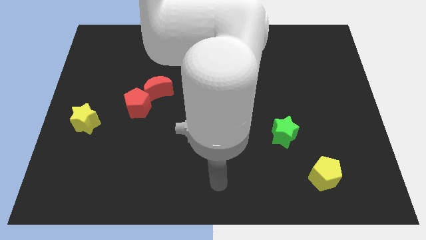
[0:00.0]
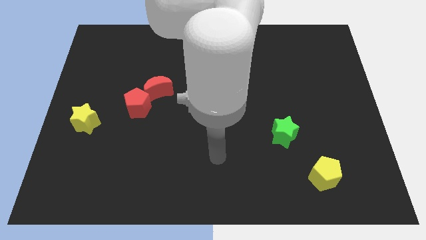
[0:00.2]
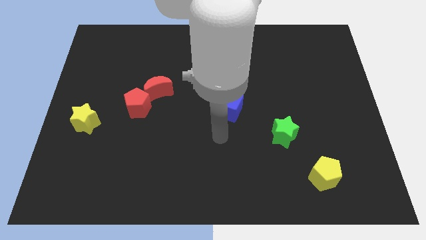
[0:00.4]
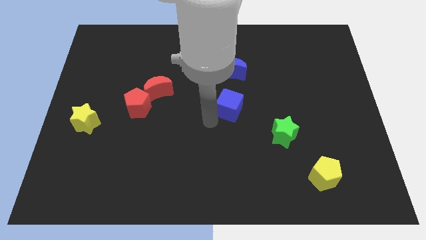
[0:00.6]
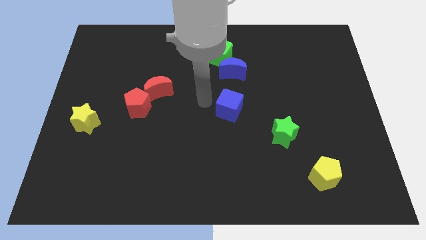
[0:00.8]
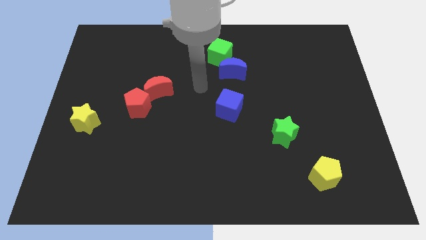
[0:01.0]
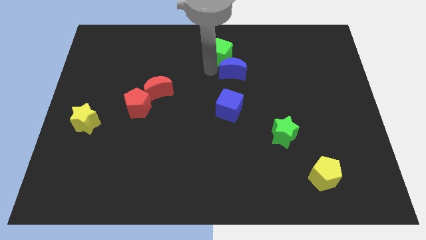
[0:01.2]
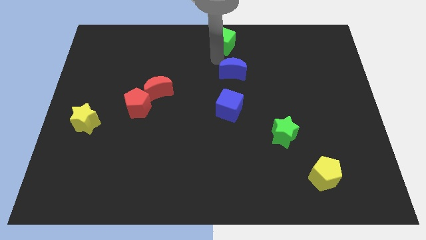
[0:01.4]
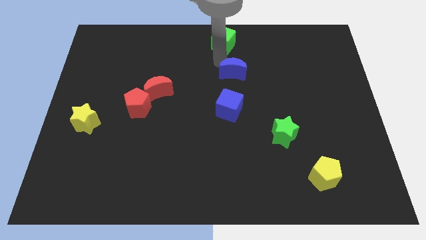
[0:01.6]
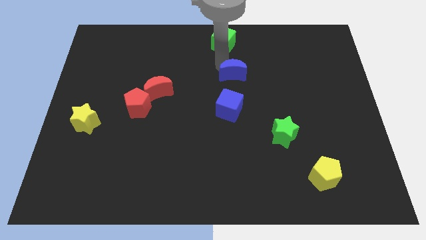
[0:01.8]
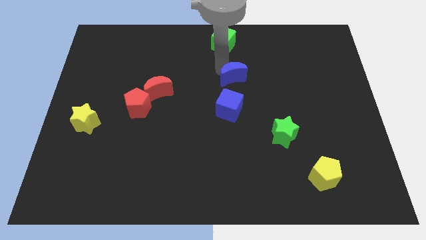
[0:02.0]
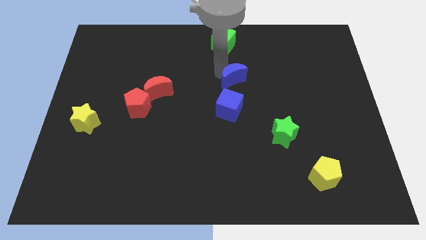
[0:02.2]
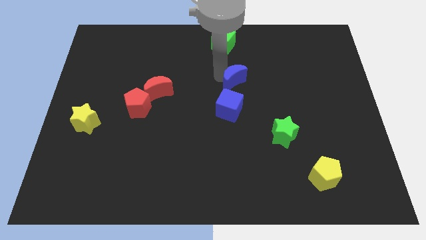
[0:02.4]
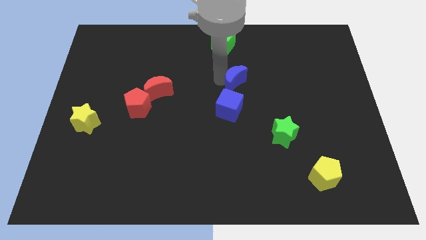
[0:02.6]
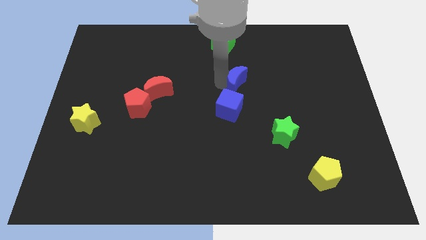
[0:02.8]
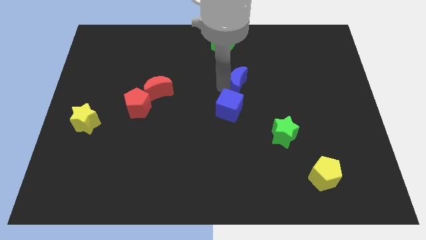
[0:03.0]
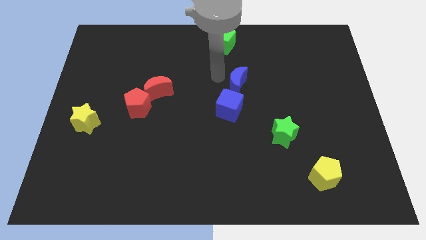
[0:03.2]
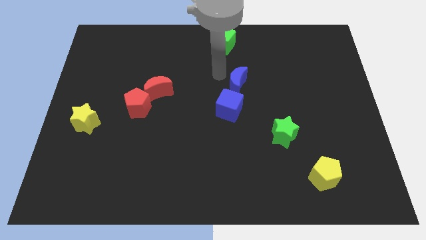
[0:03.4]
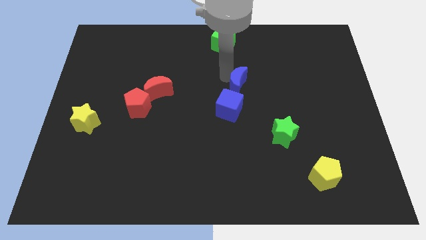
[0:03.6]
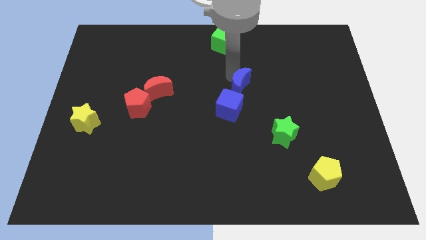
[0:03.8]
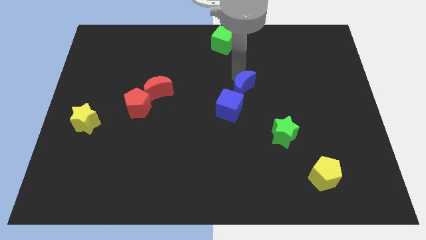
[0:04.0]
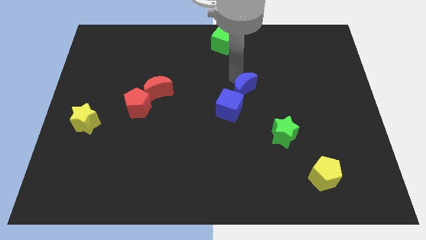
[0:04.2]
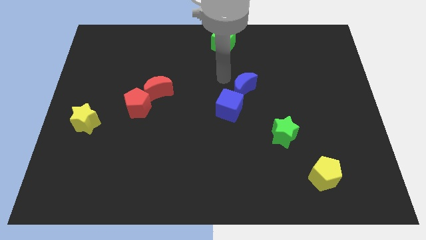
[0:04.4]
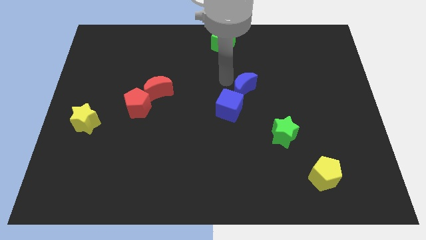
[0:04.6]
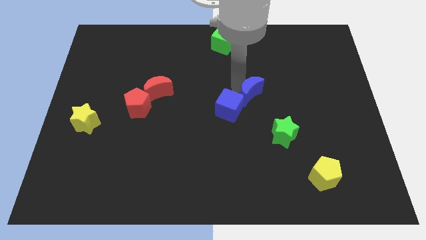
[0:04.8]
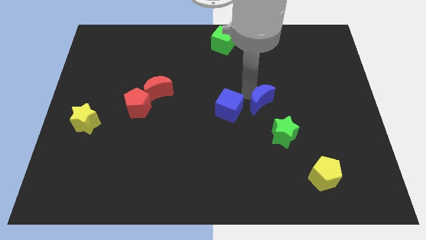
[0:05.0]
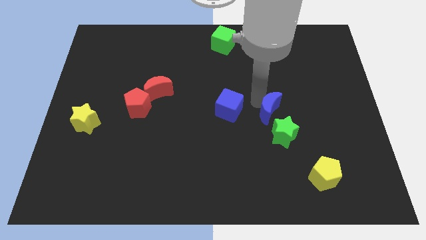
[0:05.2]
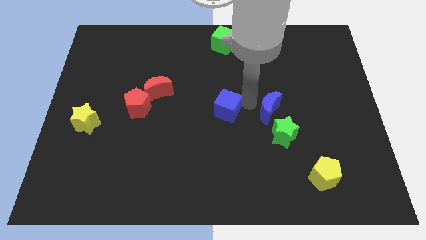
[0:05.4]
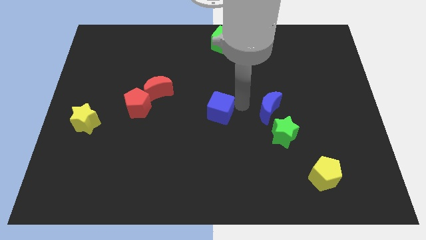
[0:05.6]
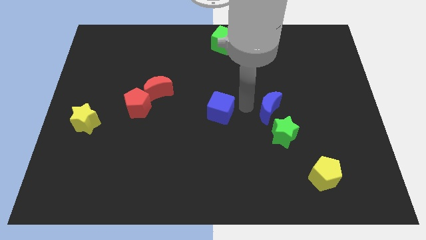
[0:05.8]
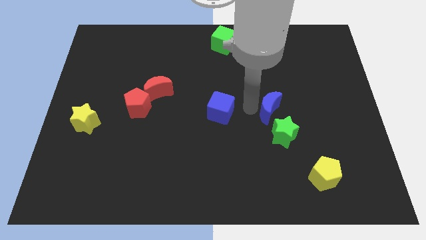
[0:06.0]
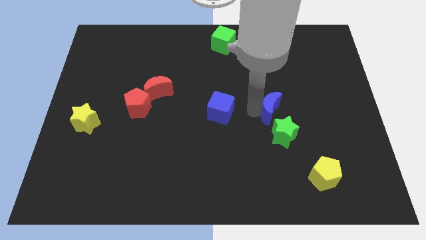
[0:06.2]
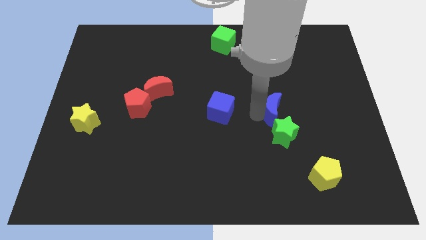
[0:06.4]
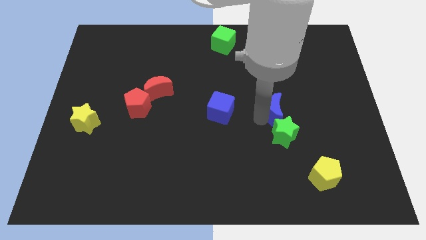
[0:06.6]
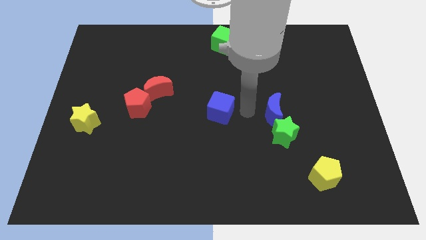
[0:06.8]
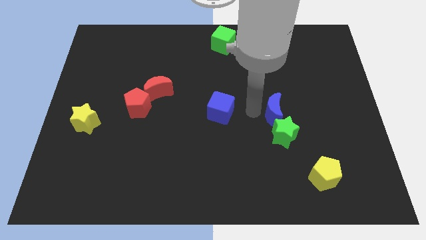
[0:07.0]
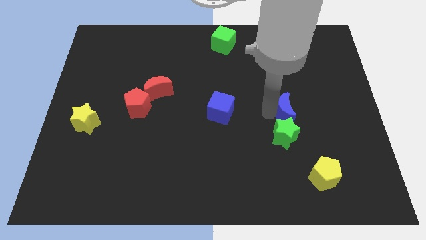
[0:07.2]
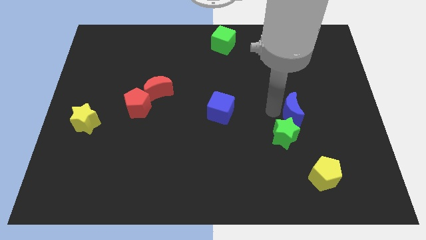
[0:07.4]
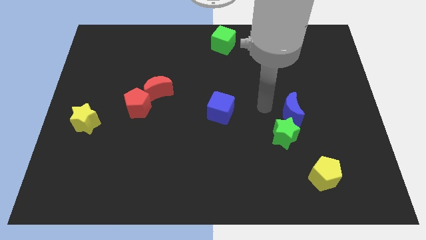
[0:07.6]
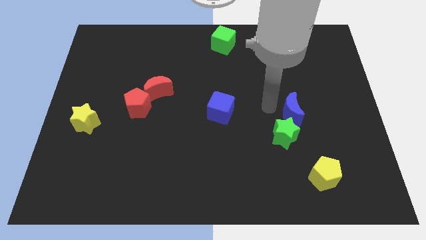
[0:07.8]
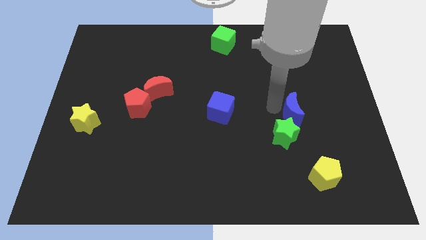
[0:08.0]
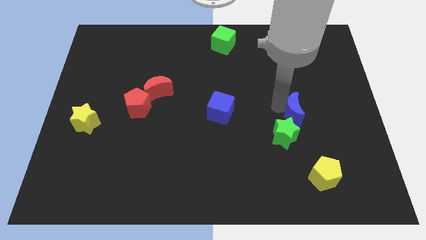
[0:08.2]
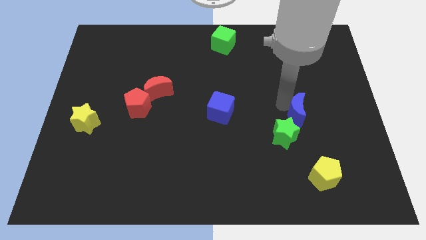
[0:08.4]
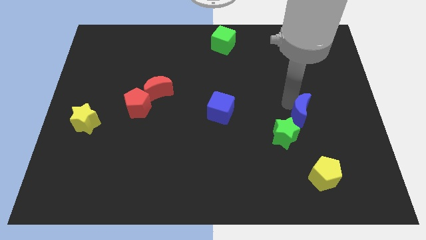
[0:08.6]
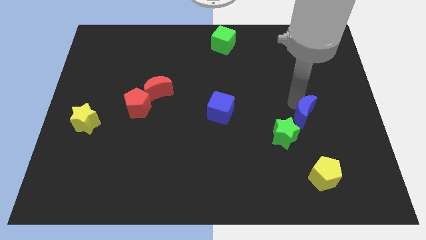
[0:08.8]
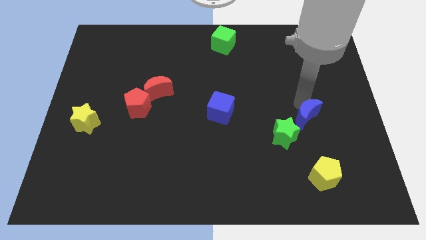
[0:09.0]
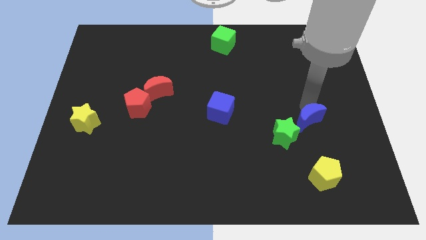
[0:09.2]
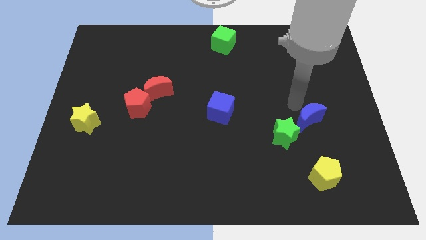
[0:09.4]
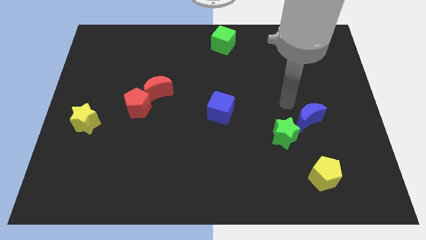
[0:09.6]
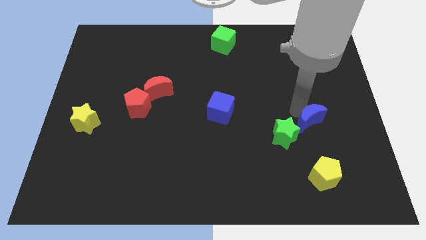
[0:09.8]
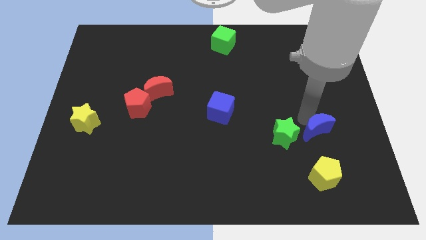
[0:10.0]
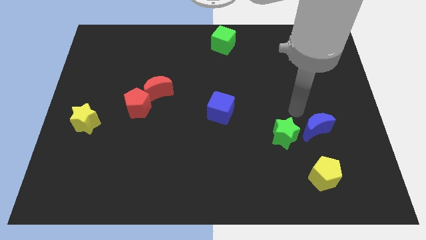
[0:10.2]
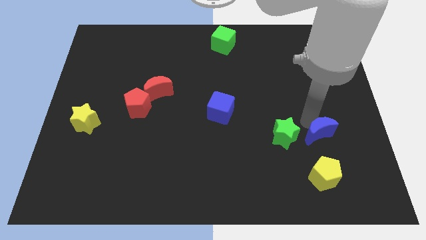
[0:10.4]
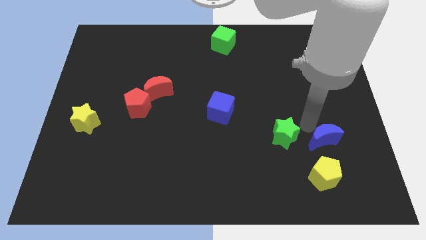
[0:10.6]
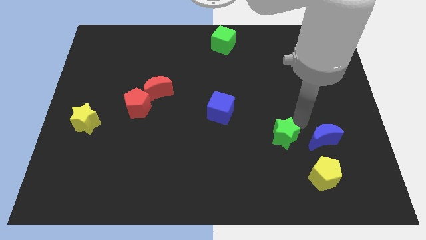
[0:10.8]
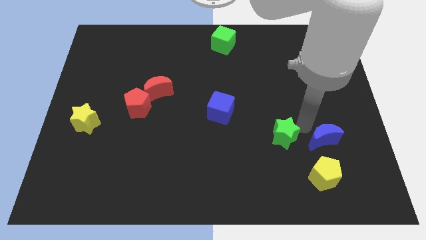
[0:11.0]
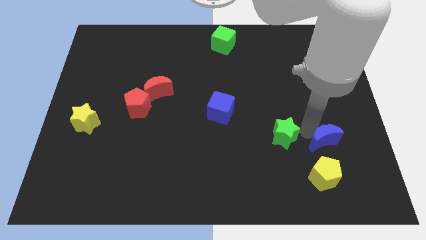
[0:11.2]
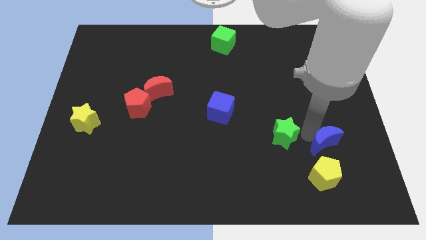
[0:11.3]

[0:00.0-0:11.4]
put the blue moon to the top right side of the yellow pentagon

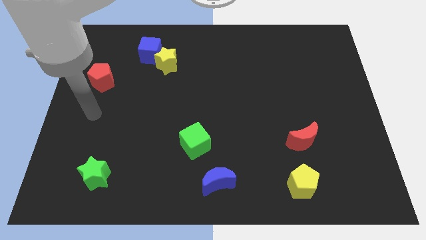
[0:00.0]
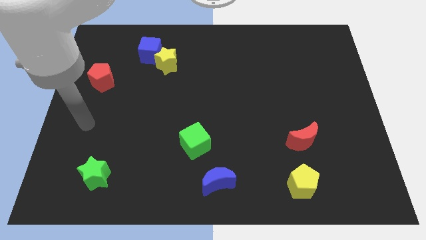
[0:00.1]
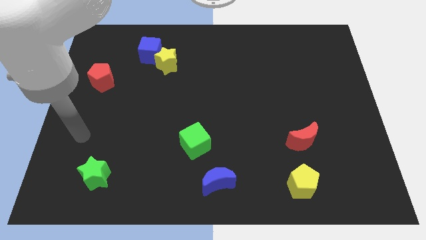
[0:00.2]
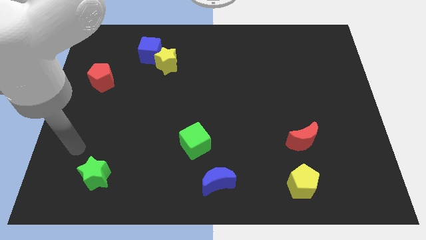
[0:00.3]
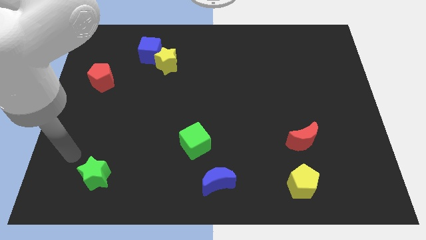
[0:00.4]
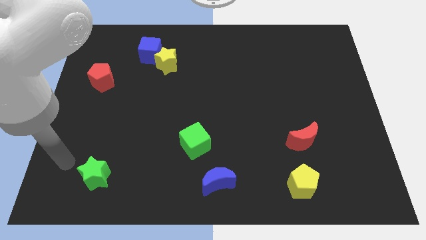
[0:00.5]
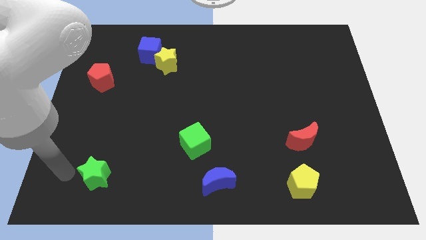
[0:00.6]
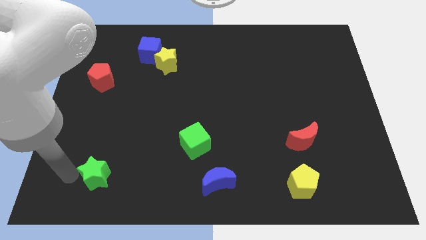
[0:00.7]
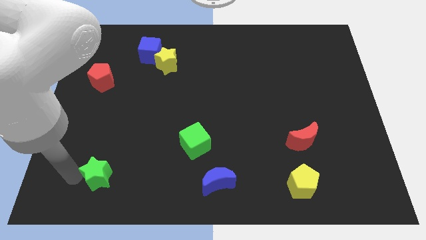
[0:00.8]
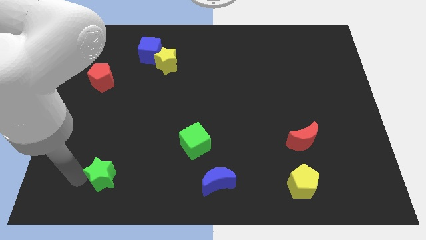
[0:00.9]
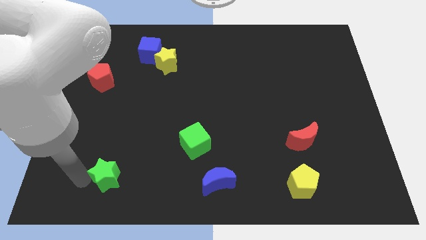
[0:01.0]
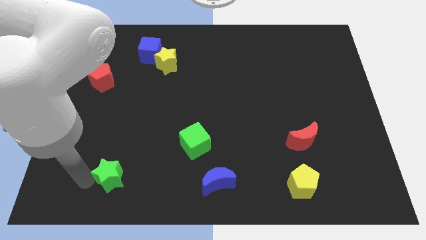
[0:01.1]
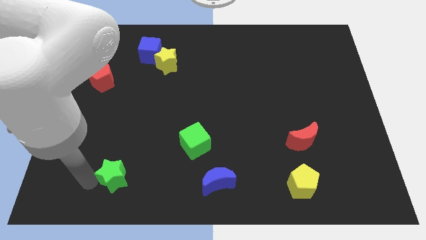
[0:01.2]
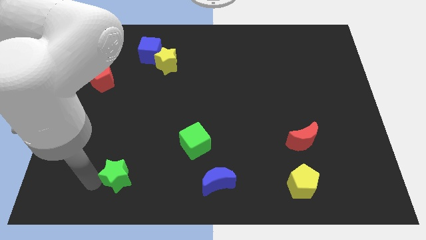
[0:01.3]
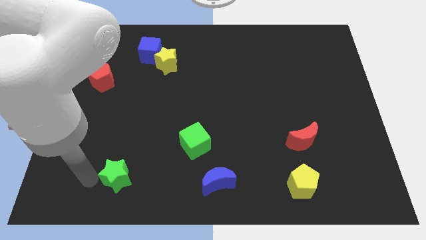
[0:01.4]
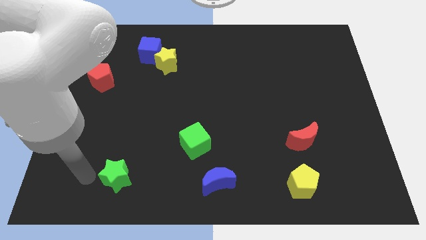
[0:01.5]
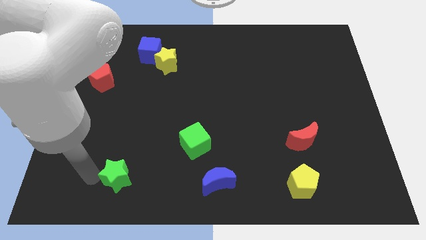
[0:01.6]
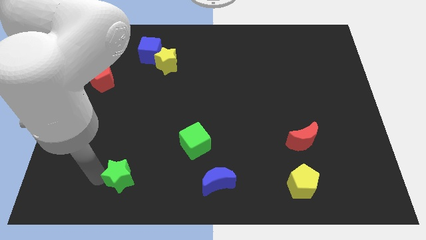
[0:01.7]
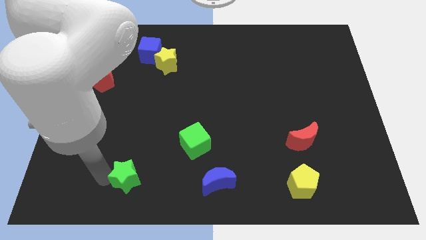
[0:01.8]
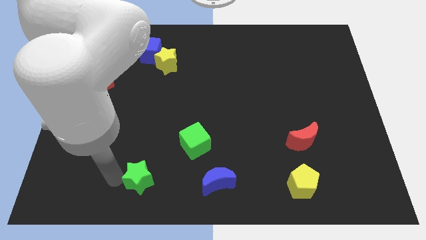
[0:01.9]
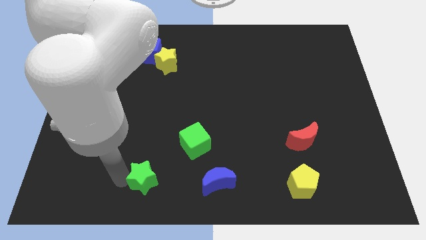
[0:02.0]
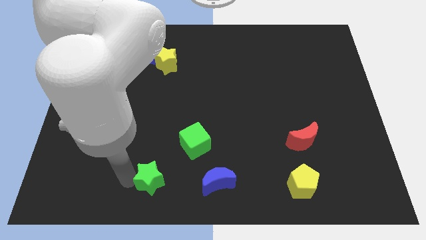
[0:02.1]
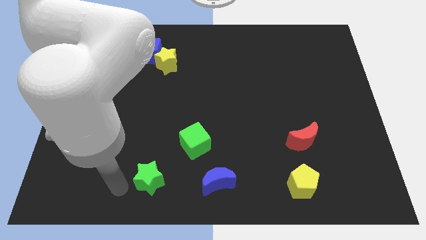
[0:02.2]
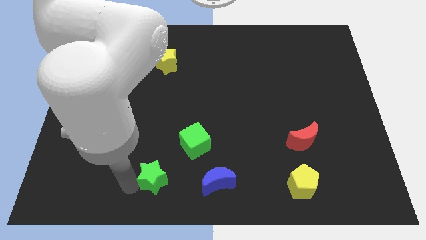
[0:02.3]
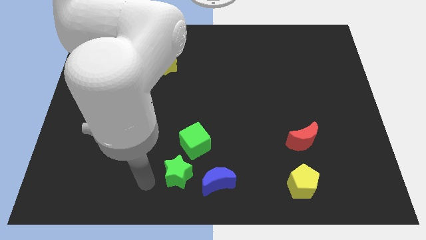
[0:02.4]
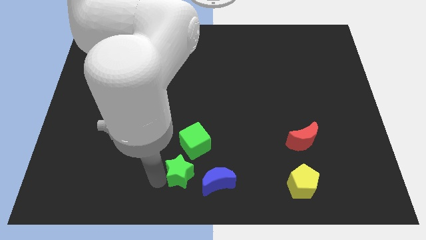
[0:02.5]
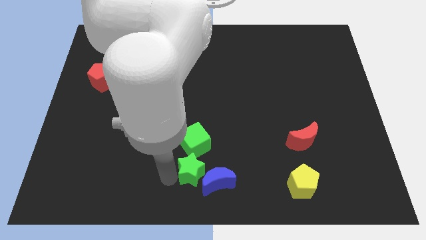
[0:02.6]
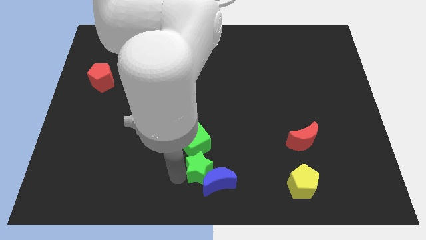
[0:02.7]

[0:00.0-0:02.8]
put the green star to the bottom right side of the green cube
